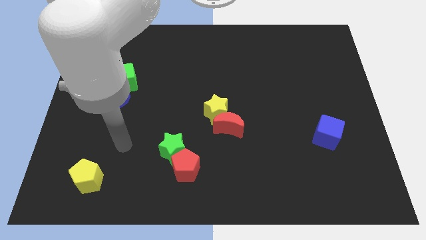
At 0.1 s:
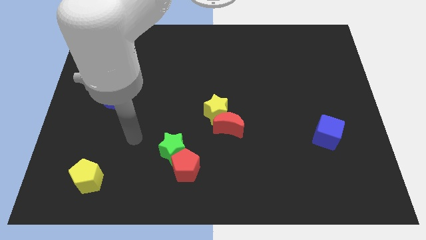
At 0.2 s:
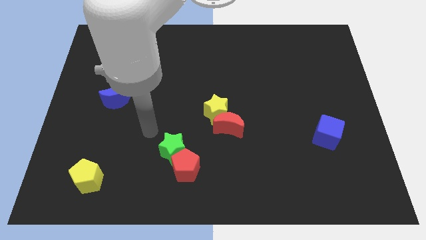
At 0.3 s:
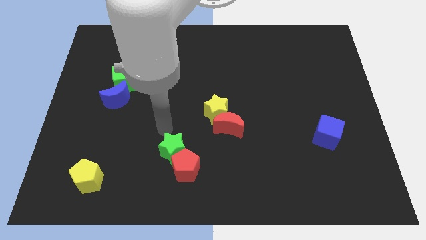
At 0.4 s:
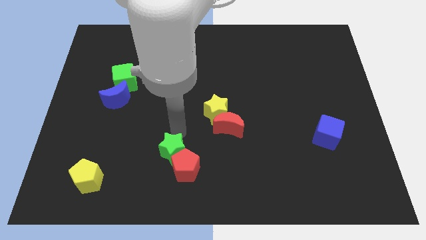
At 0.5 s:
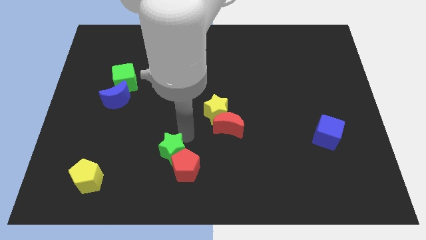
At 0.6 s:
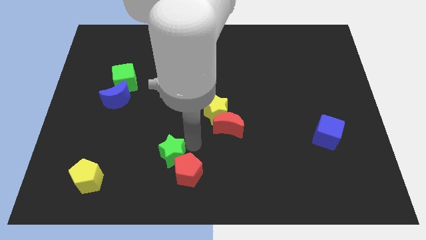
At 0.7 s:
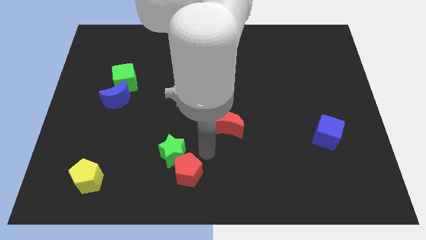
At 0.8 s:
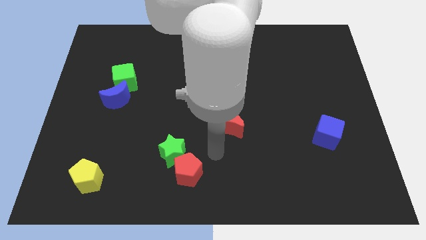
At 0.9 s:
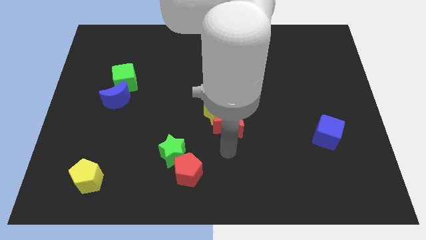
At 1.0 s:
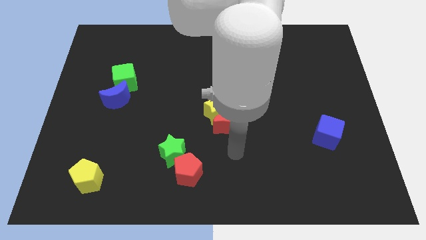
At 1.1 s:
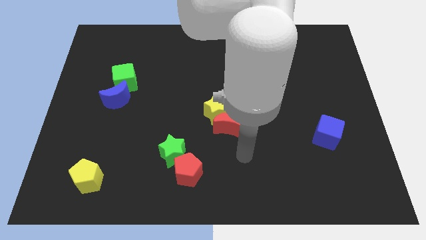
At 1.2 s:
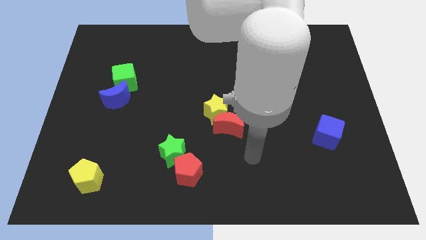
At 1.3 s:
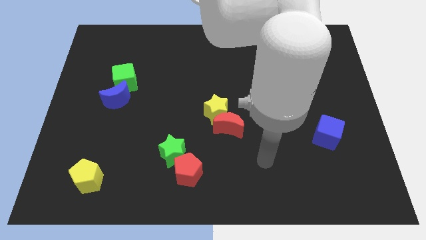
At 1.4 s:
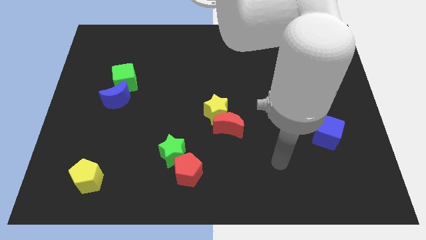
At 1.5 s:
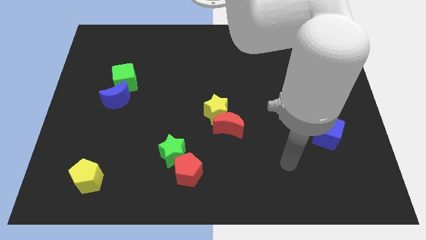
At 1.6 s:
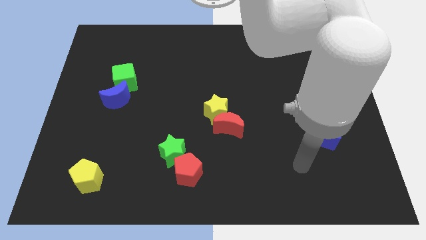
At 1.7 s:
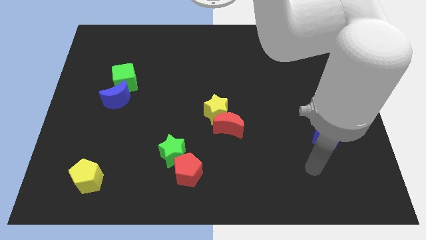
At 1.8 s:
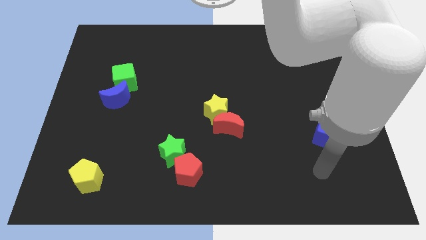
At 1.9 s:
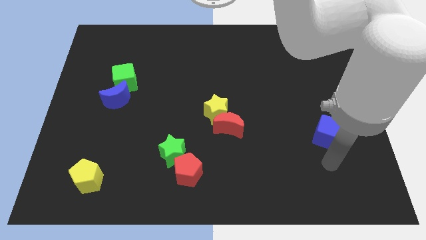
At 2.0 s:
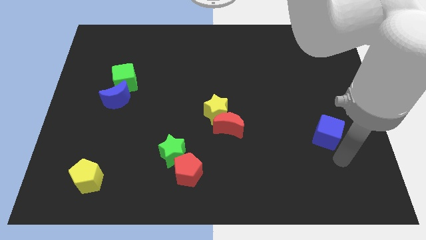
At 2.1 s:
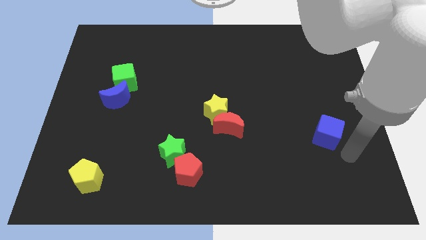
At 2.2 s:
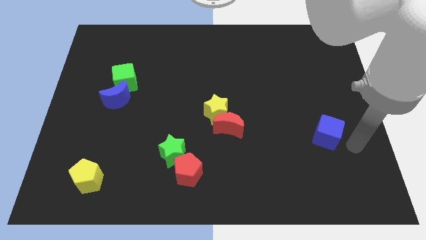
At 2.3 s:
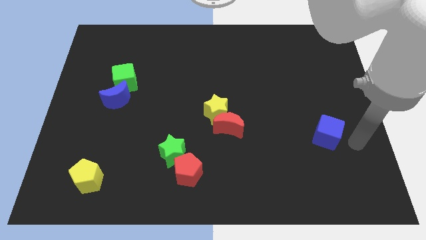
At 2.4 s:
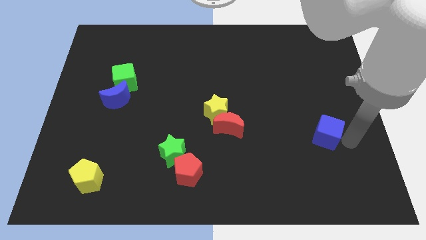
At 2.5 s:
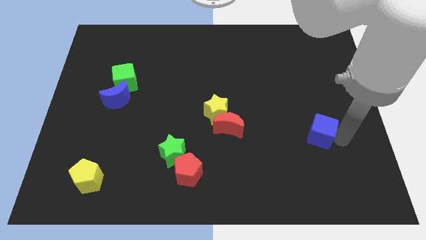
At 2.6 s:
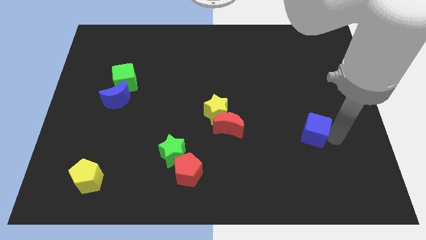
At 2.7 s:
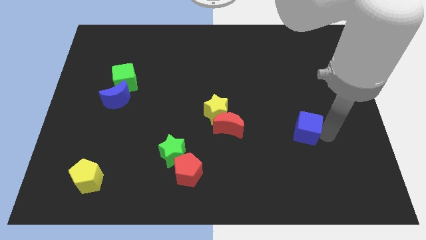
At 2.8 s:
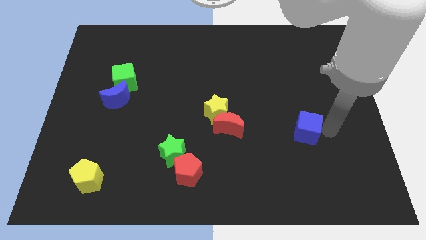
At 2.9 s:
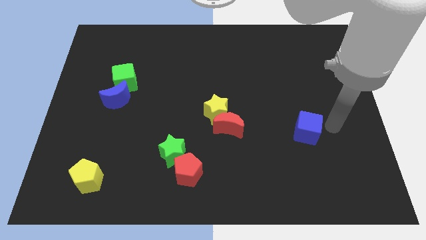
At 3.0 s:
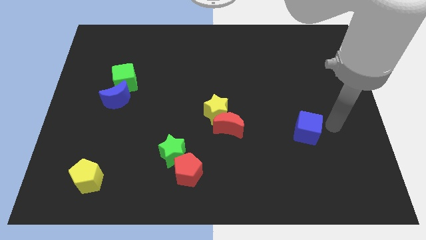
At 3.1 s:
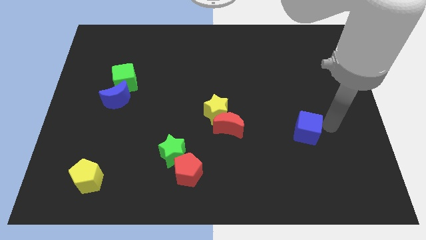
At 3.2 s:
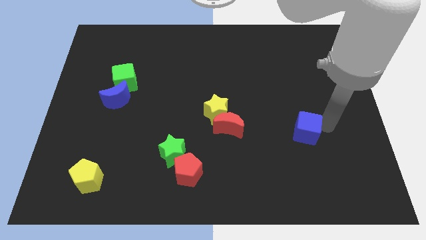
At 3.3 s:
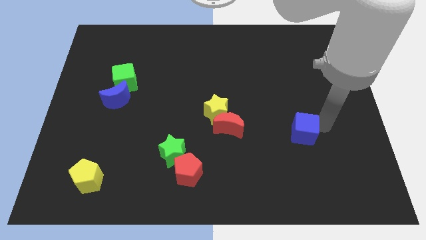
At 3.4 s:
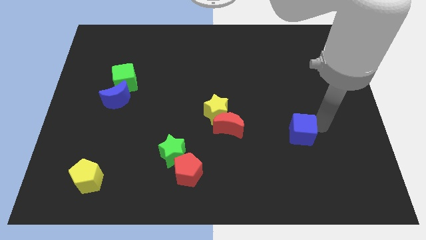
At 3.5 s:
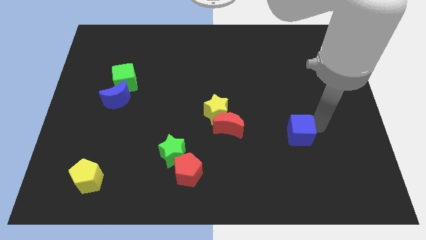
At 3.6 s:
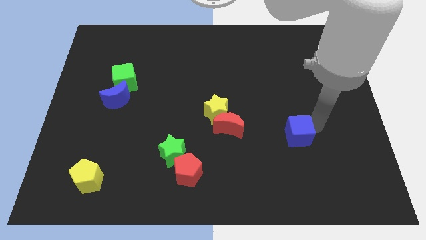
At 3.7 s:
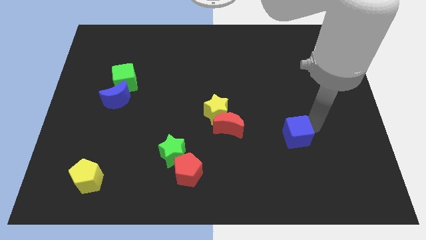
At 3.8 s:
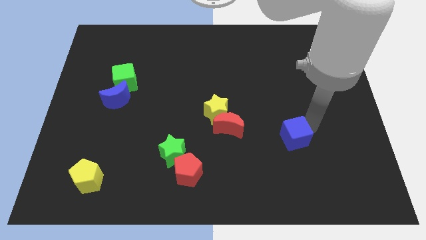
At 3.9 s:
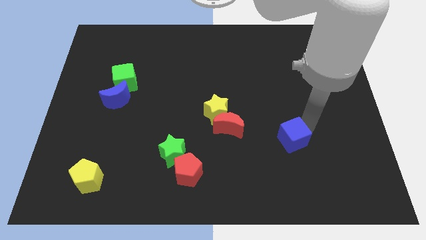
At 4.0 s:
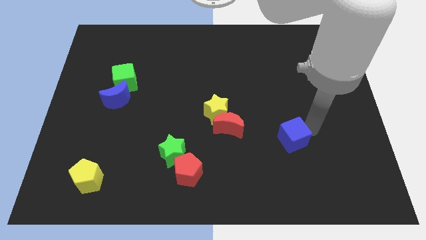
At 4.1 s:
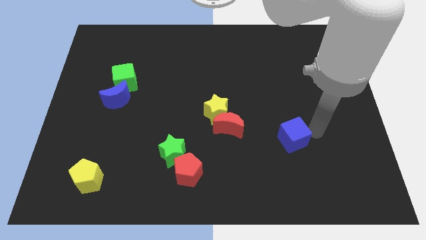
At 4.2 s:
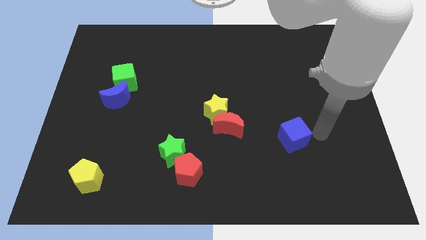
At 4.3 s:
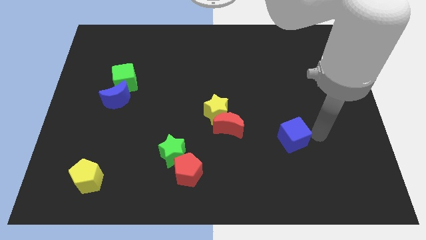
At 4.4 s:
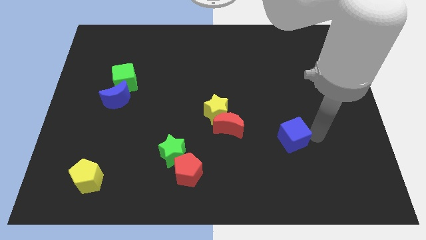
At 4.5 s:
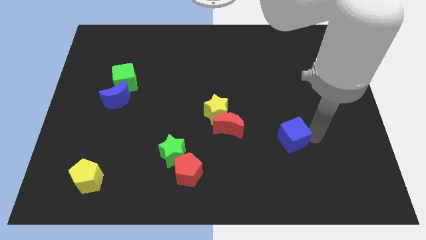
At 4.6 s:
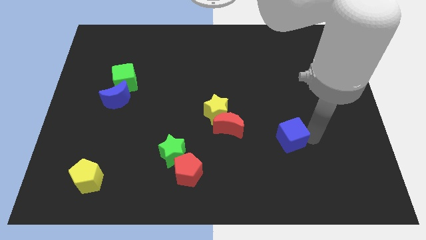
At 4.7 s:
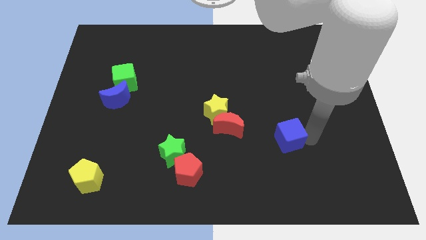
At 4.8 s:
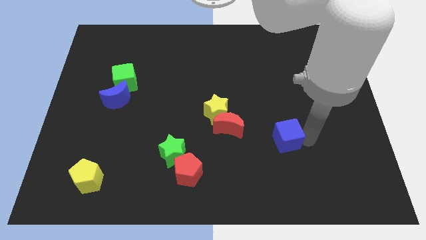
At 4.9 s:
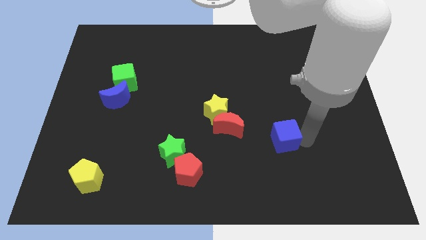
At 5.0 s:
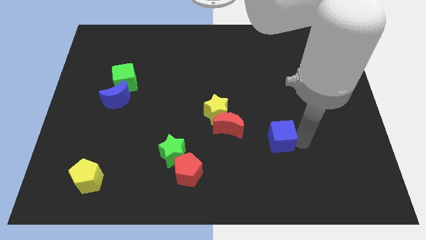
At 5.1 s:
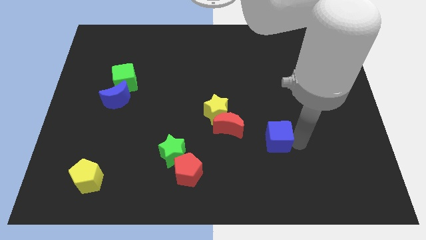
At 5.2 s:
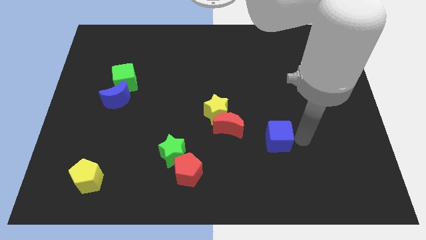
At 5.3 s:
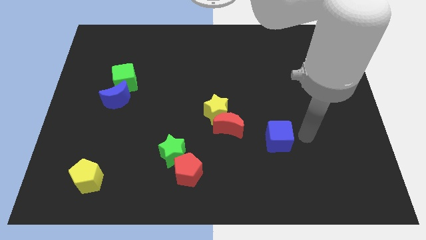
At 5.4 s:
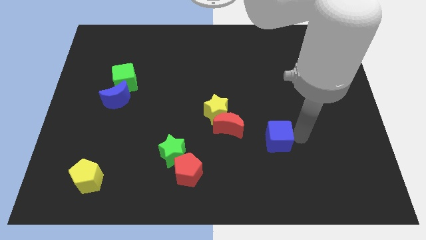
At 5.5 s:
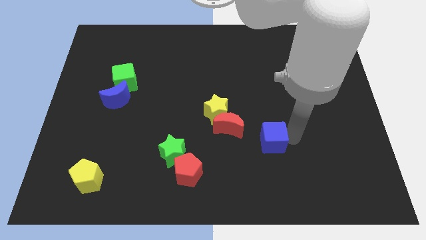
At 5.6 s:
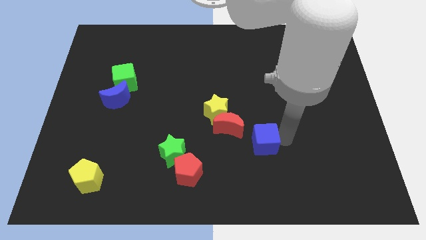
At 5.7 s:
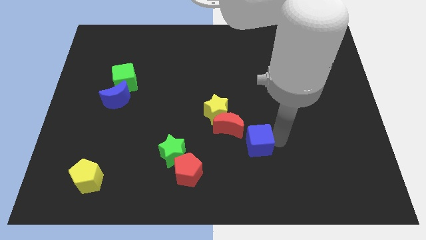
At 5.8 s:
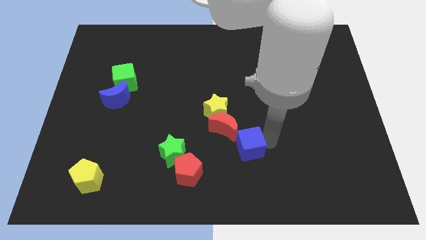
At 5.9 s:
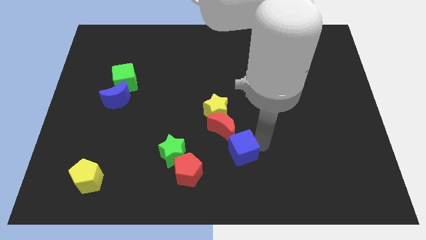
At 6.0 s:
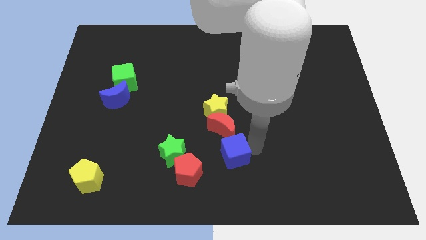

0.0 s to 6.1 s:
put the blue cube below the yellow star
